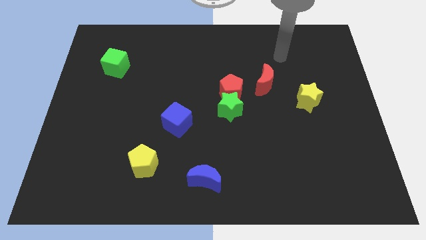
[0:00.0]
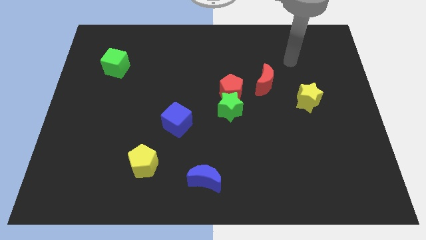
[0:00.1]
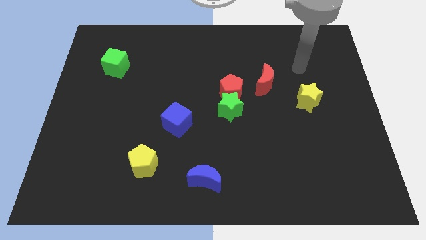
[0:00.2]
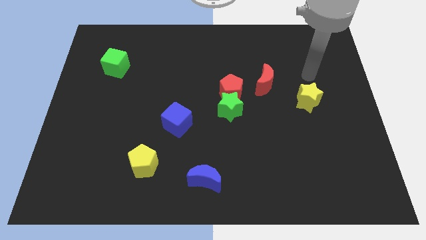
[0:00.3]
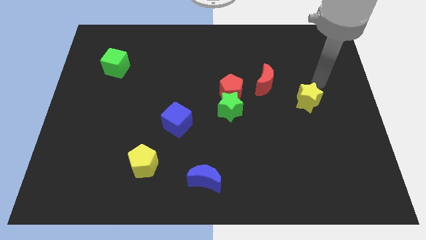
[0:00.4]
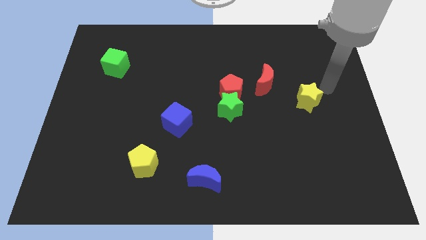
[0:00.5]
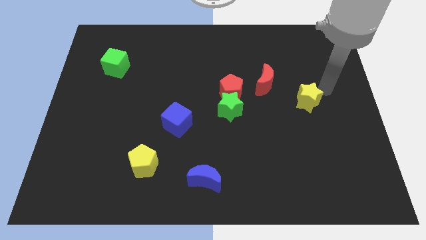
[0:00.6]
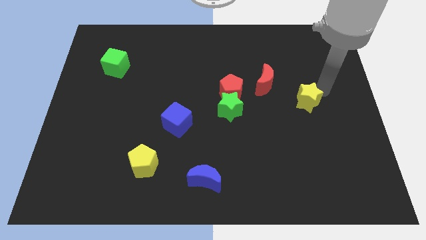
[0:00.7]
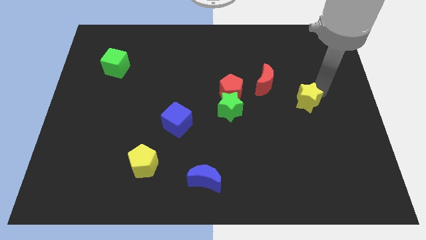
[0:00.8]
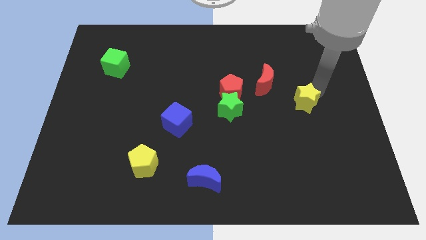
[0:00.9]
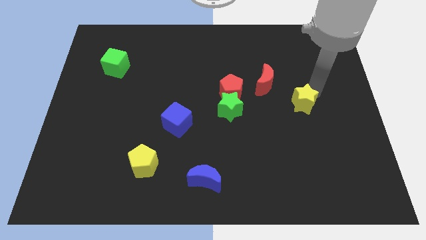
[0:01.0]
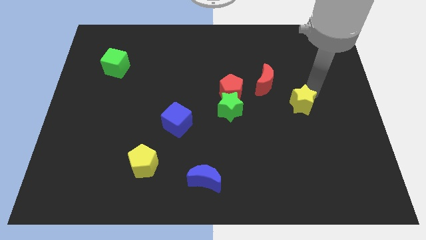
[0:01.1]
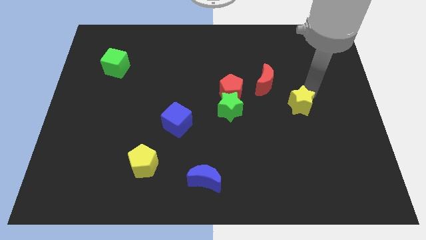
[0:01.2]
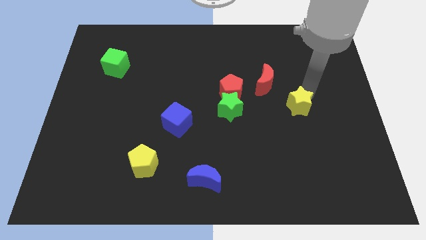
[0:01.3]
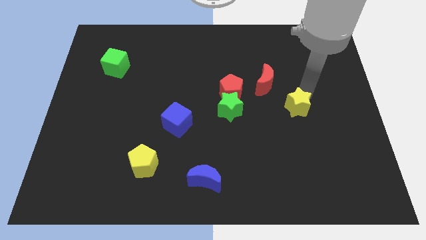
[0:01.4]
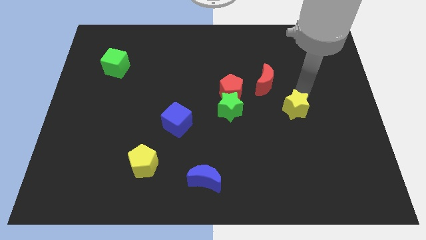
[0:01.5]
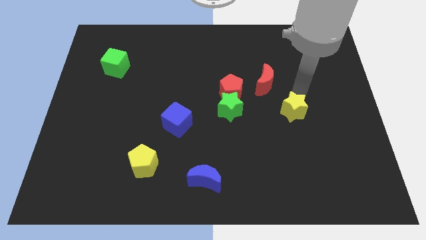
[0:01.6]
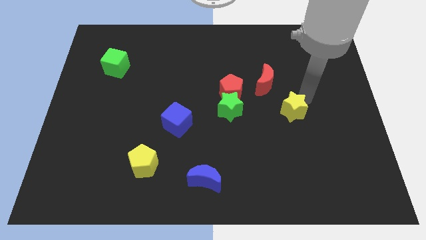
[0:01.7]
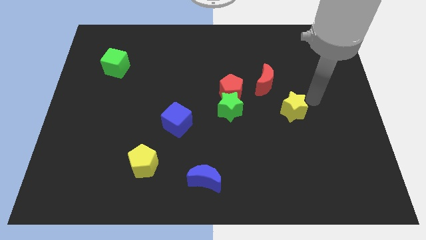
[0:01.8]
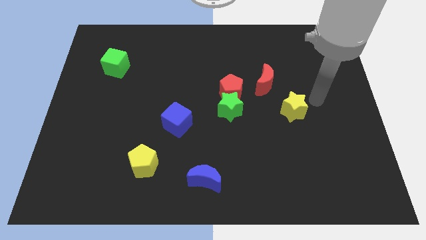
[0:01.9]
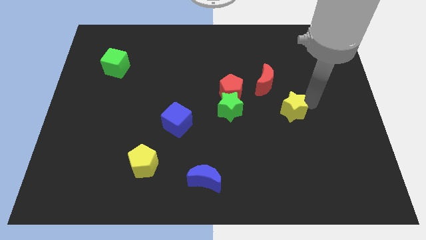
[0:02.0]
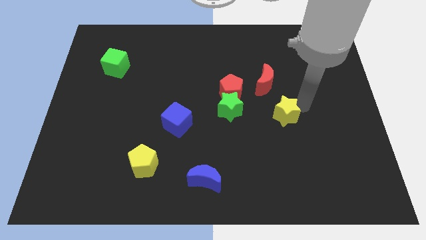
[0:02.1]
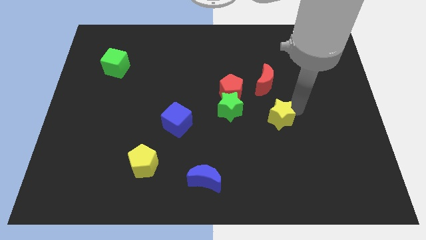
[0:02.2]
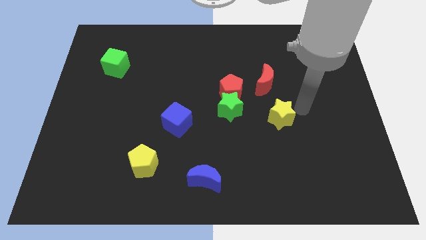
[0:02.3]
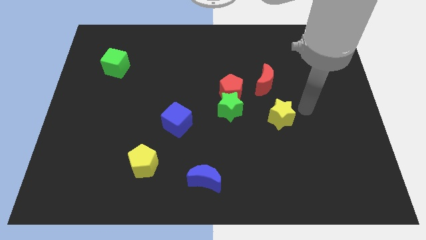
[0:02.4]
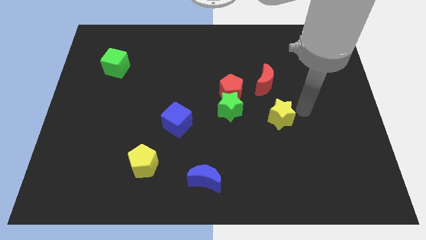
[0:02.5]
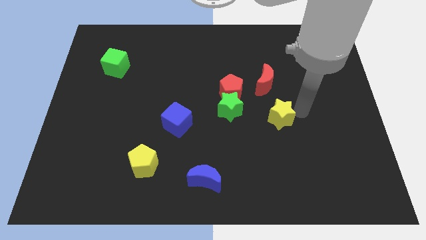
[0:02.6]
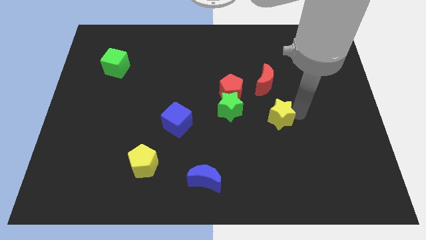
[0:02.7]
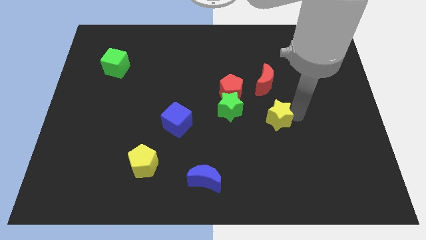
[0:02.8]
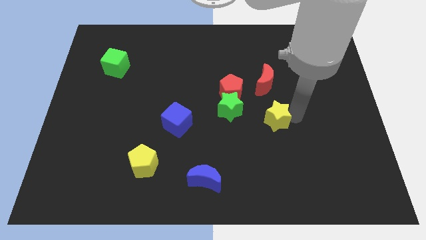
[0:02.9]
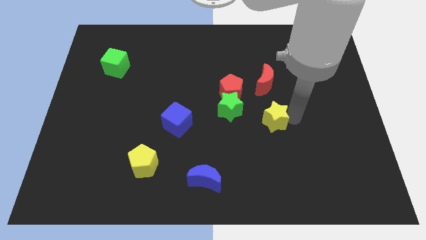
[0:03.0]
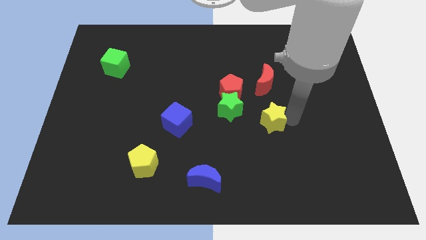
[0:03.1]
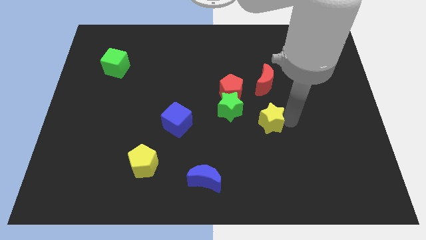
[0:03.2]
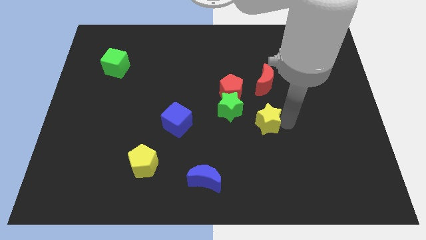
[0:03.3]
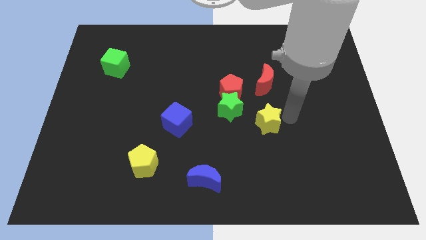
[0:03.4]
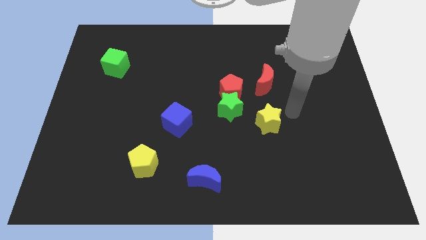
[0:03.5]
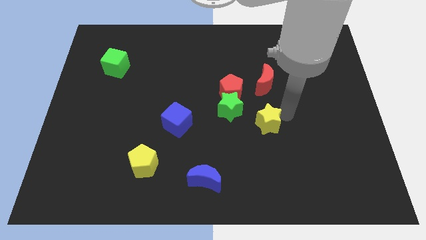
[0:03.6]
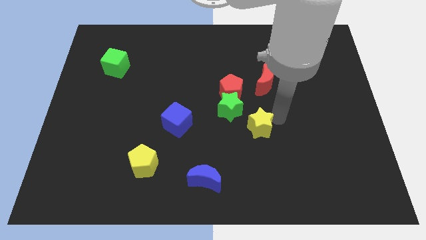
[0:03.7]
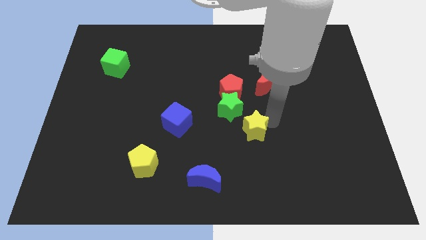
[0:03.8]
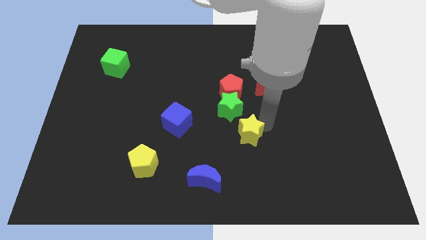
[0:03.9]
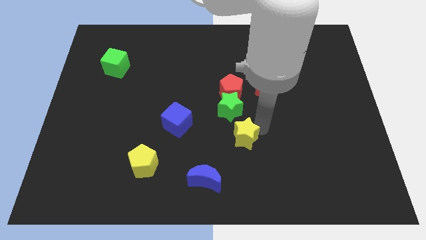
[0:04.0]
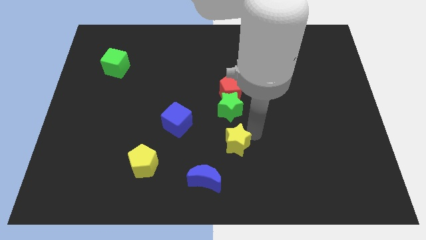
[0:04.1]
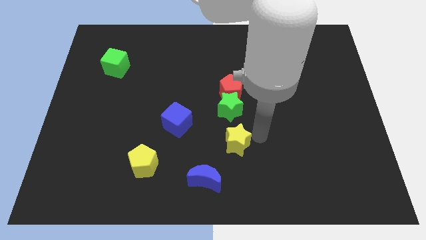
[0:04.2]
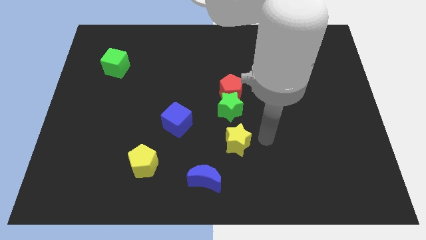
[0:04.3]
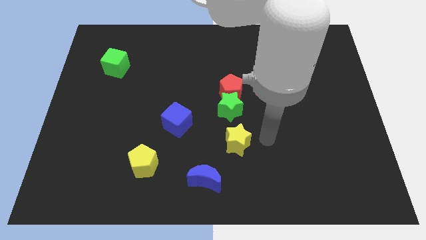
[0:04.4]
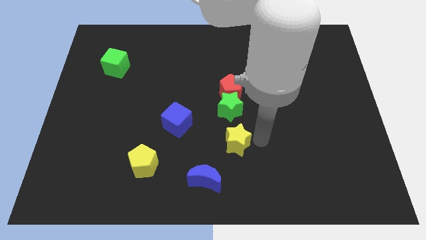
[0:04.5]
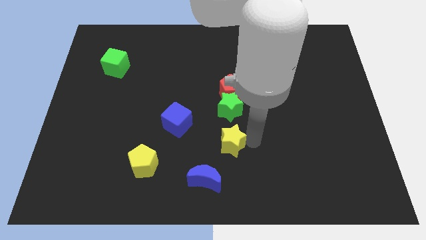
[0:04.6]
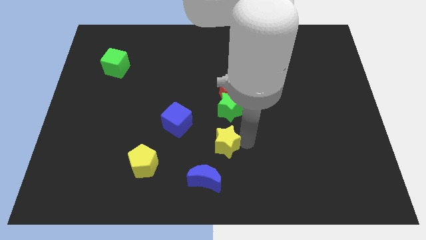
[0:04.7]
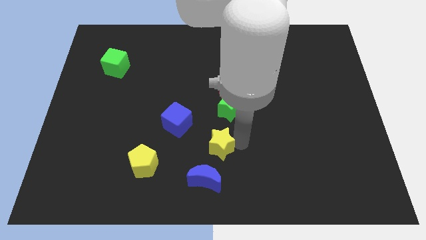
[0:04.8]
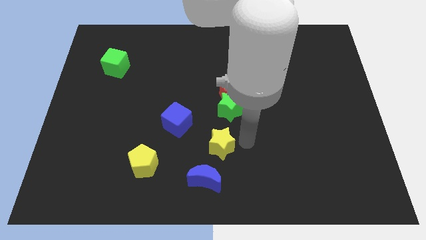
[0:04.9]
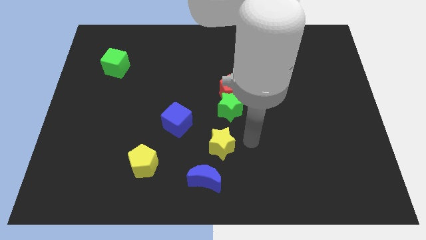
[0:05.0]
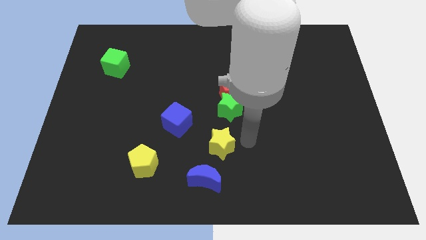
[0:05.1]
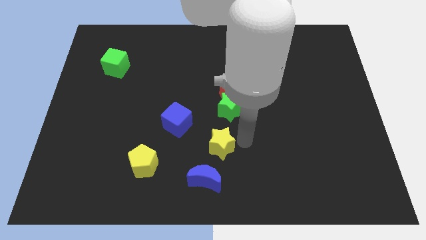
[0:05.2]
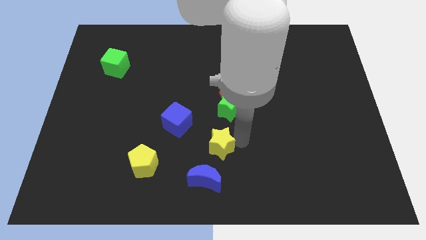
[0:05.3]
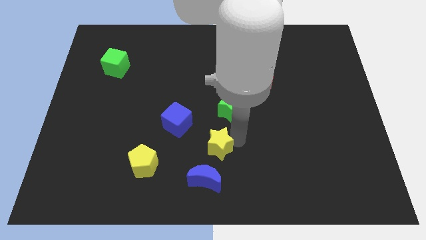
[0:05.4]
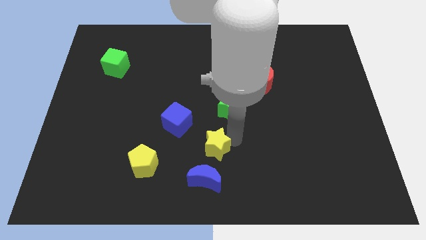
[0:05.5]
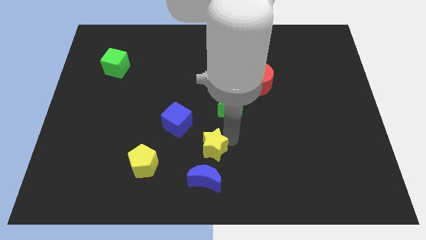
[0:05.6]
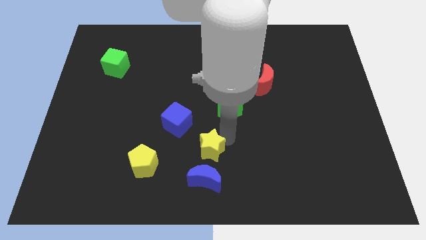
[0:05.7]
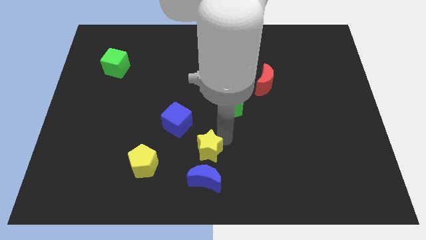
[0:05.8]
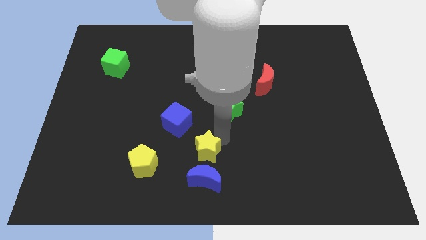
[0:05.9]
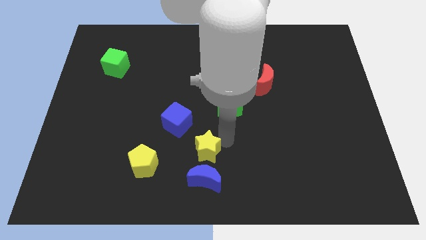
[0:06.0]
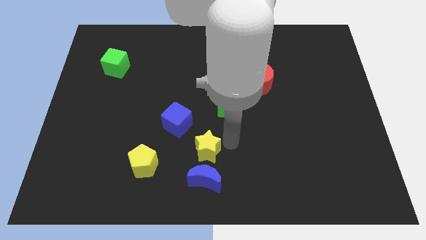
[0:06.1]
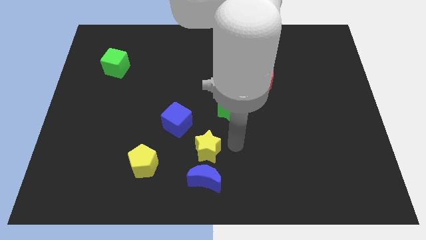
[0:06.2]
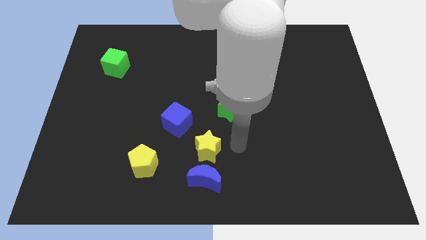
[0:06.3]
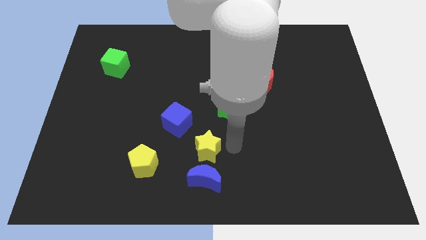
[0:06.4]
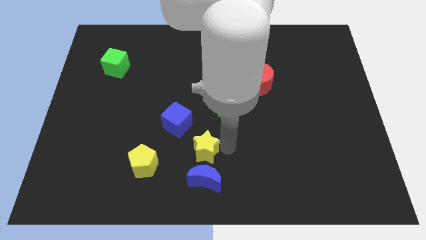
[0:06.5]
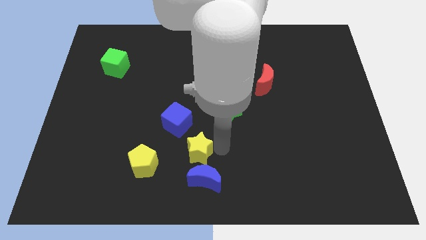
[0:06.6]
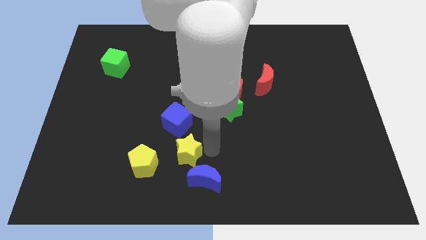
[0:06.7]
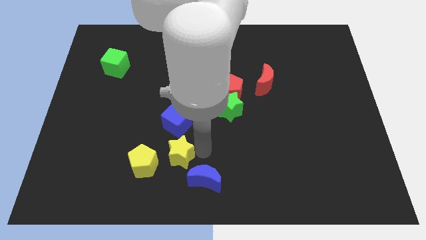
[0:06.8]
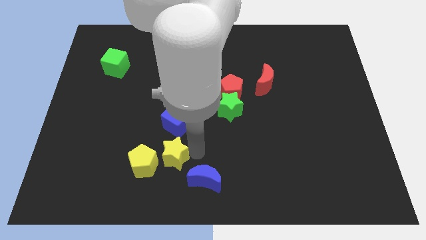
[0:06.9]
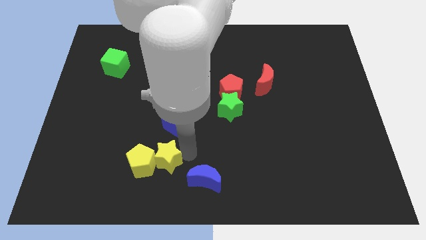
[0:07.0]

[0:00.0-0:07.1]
slide the yellow star close to the yellow pentagon

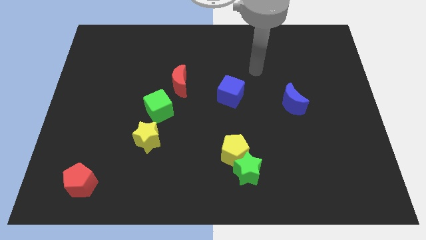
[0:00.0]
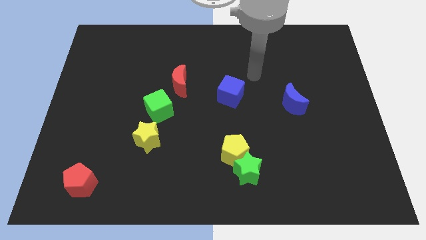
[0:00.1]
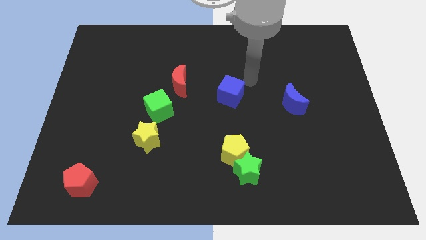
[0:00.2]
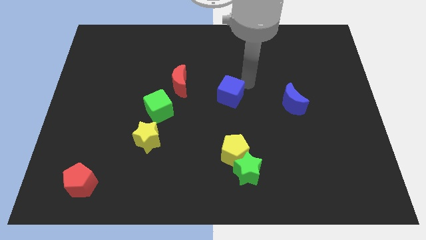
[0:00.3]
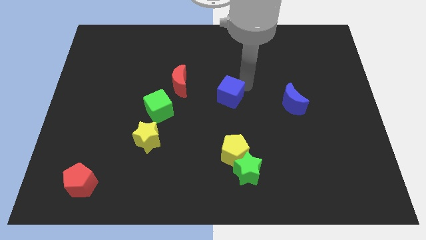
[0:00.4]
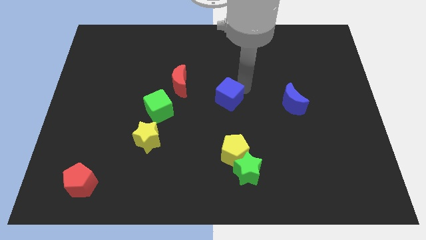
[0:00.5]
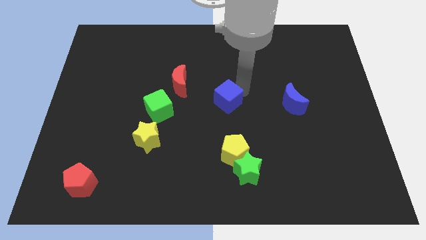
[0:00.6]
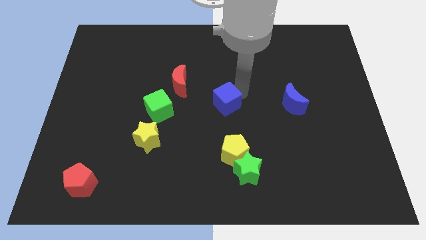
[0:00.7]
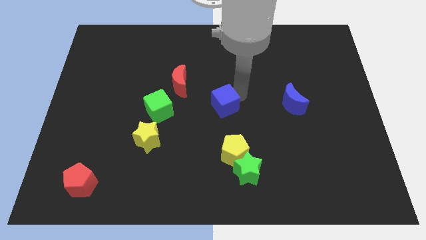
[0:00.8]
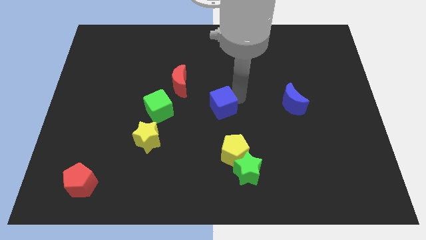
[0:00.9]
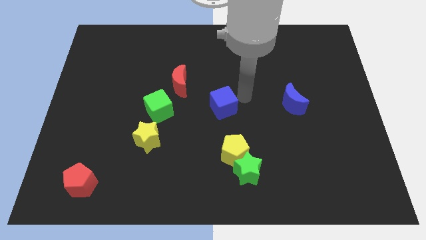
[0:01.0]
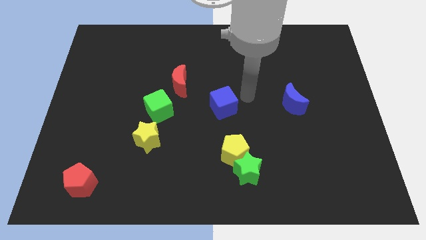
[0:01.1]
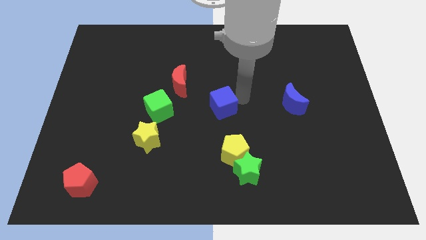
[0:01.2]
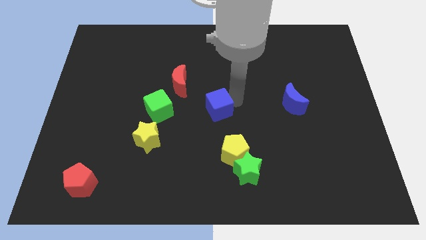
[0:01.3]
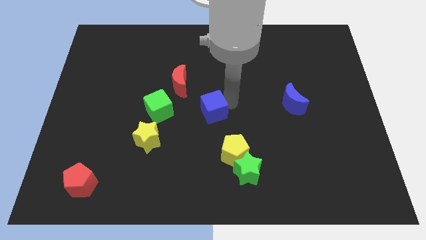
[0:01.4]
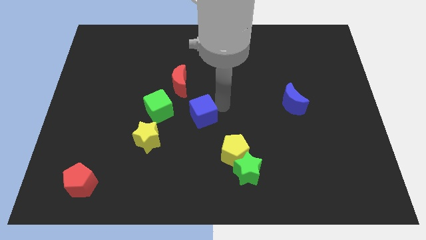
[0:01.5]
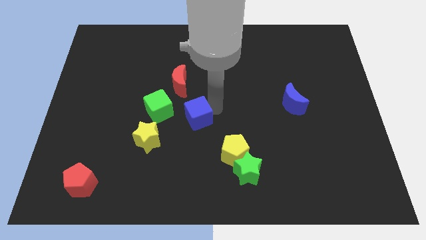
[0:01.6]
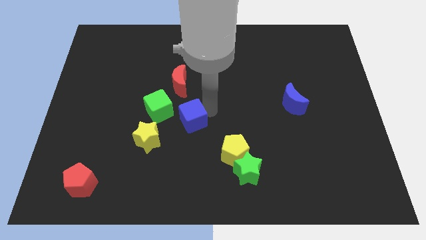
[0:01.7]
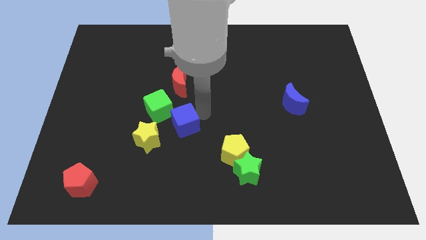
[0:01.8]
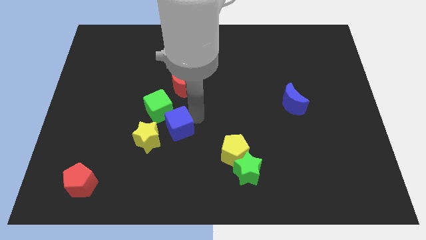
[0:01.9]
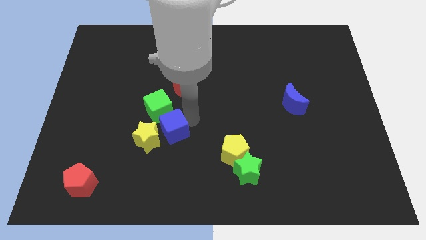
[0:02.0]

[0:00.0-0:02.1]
slide the blue cube to the yellow star
